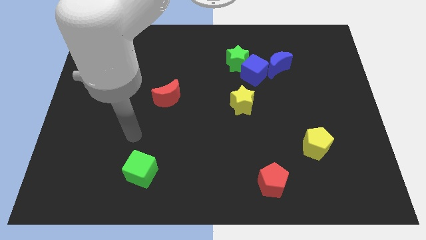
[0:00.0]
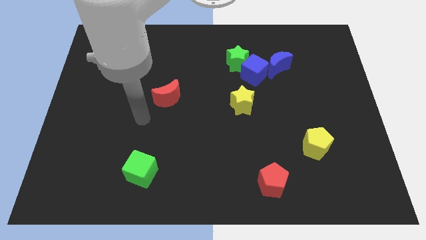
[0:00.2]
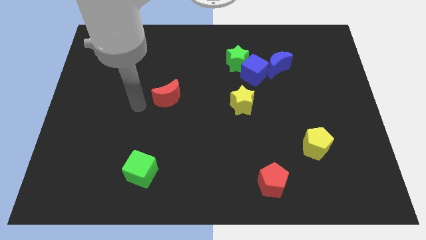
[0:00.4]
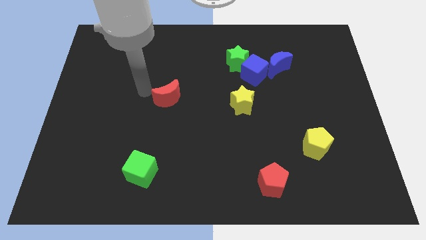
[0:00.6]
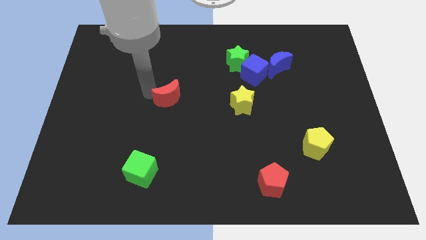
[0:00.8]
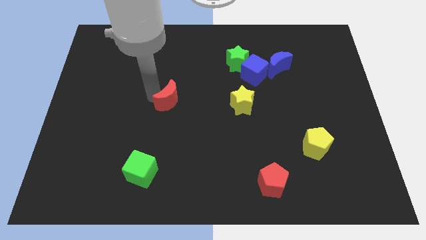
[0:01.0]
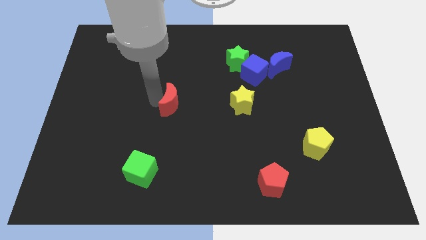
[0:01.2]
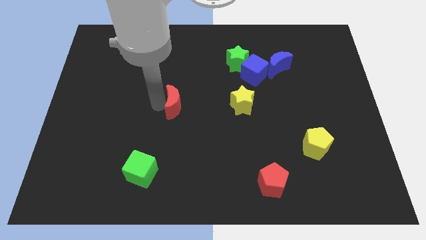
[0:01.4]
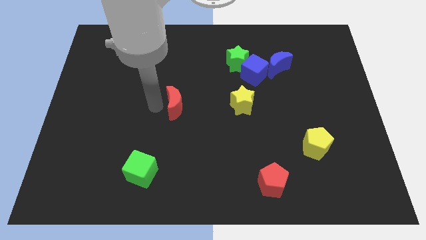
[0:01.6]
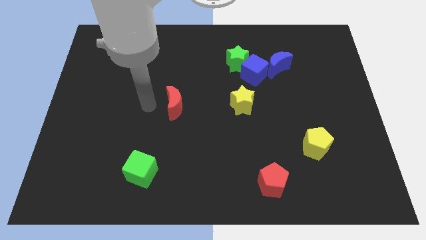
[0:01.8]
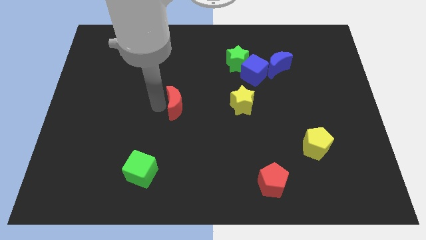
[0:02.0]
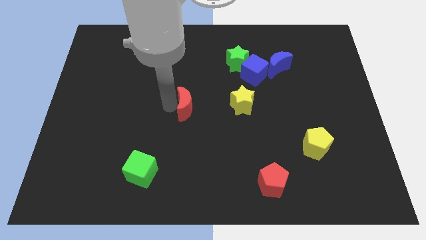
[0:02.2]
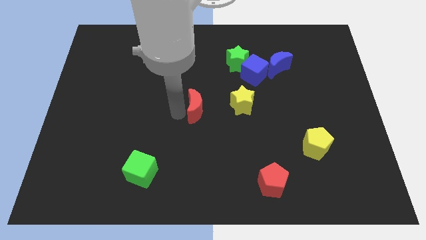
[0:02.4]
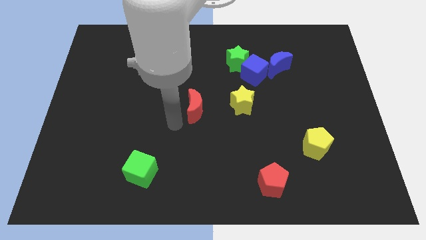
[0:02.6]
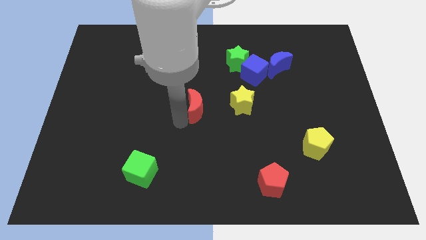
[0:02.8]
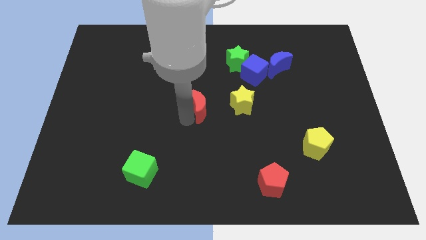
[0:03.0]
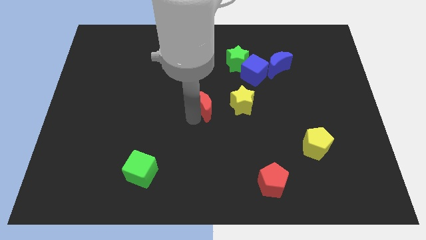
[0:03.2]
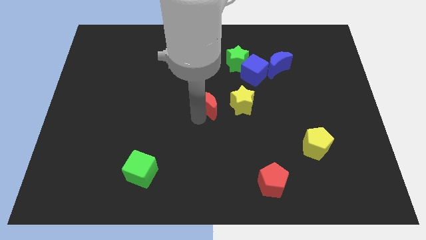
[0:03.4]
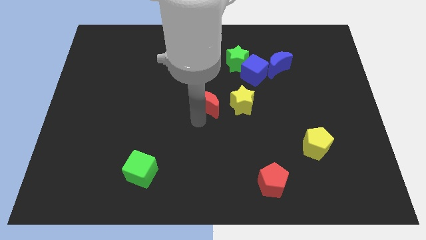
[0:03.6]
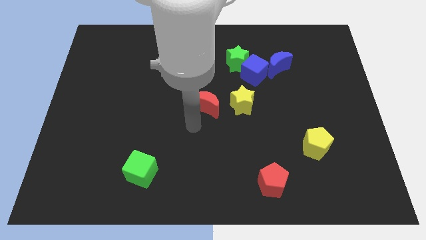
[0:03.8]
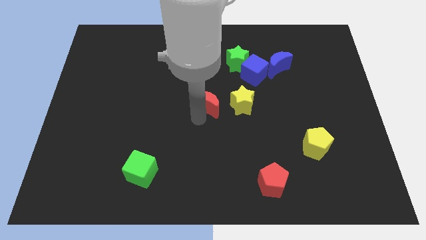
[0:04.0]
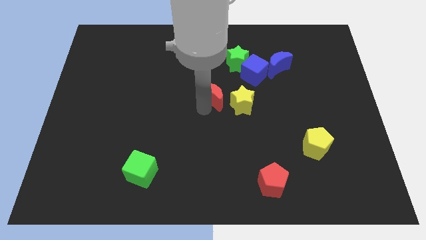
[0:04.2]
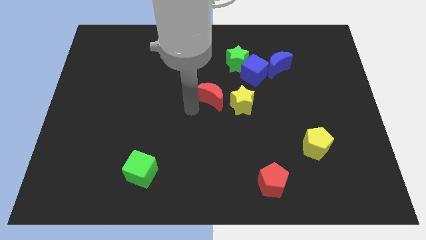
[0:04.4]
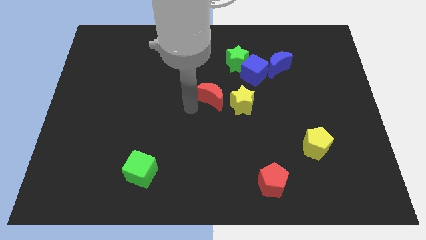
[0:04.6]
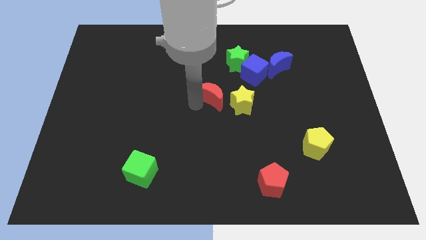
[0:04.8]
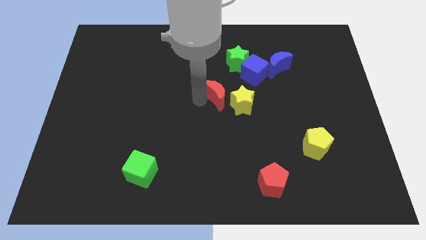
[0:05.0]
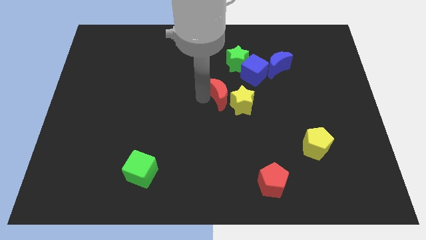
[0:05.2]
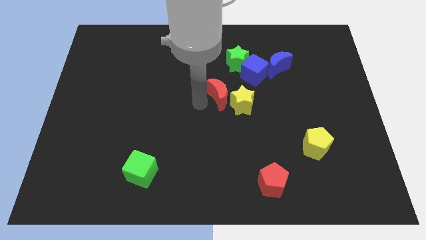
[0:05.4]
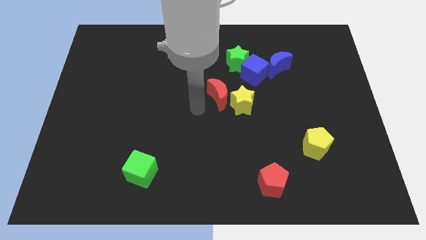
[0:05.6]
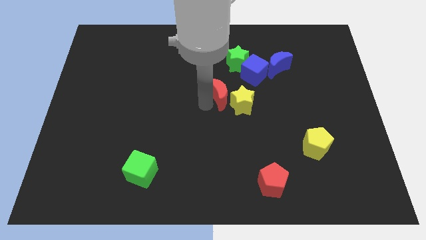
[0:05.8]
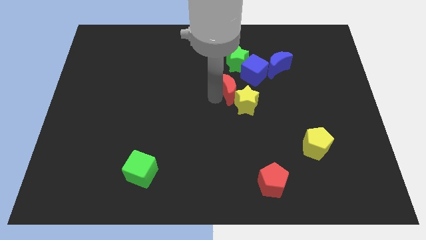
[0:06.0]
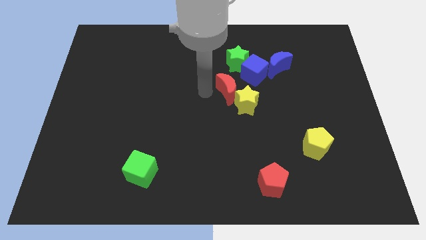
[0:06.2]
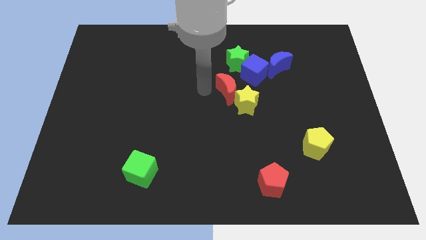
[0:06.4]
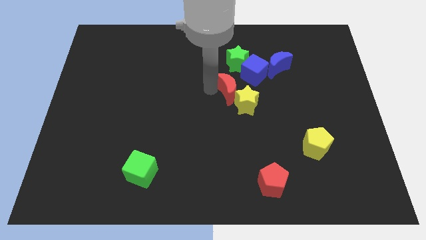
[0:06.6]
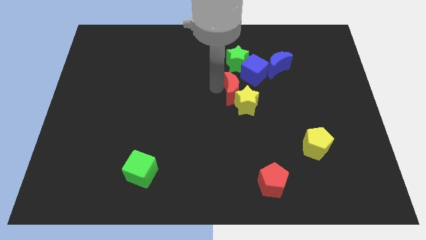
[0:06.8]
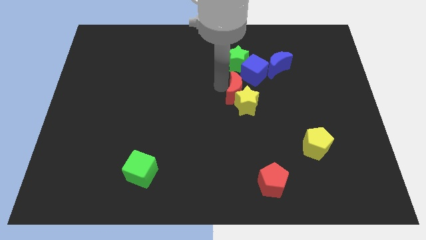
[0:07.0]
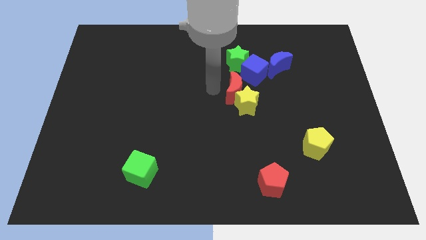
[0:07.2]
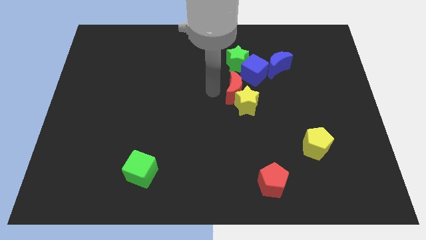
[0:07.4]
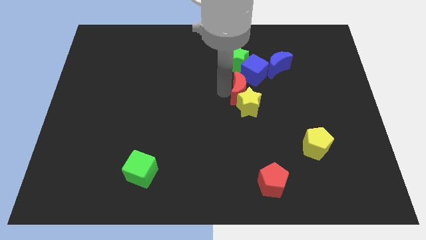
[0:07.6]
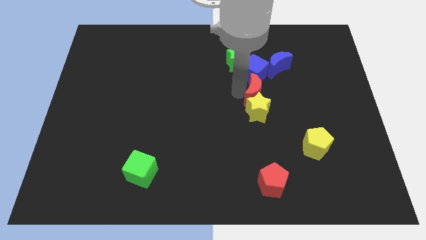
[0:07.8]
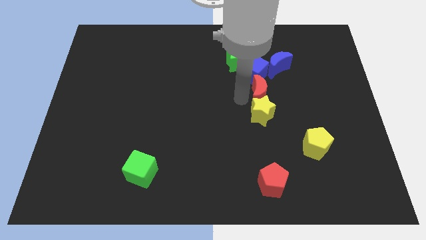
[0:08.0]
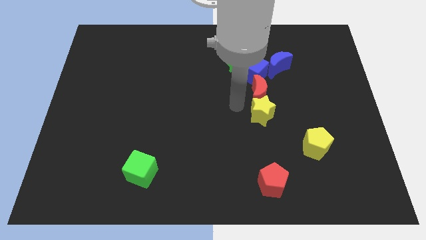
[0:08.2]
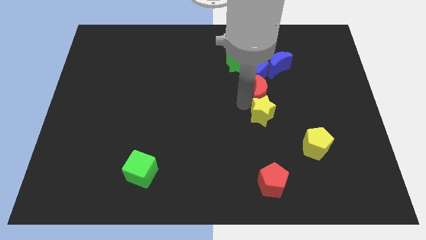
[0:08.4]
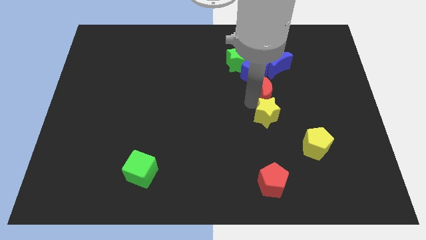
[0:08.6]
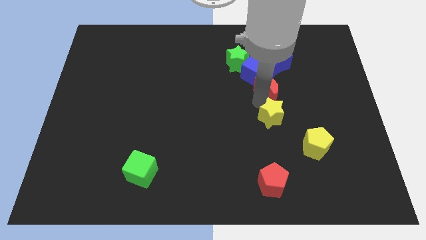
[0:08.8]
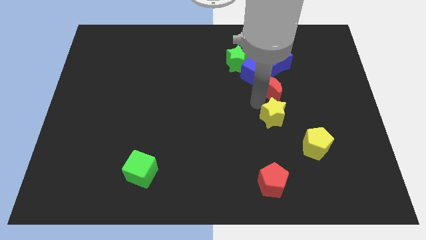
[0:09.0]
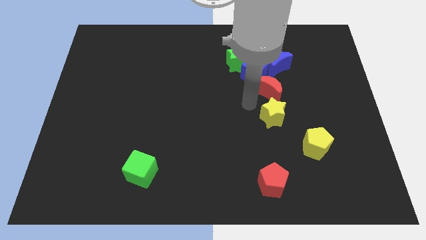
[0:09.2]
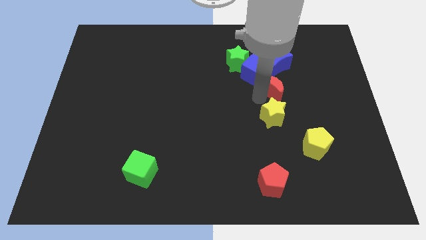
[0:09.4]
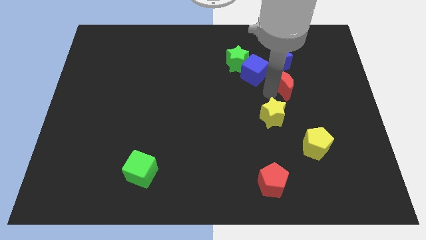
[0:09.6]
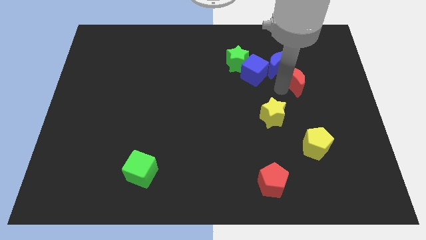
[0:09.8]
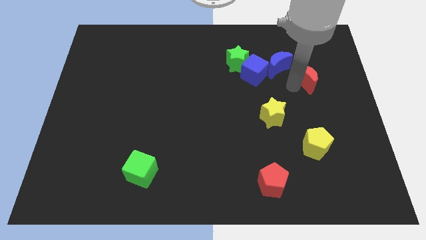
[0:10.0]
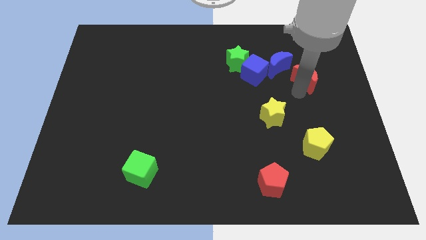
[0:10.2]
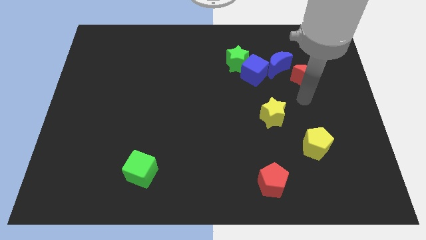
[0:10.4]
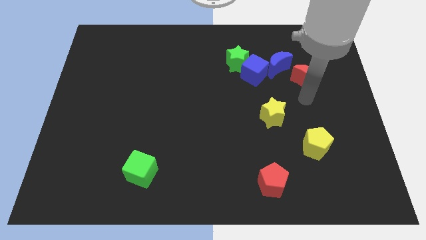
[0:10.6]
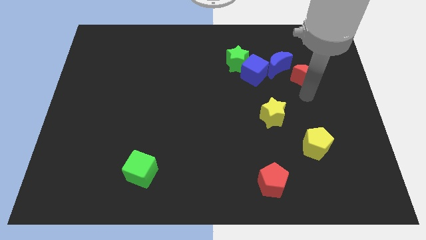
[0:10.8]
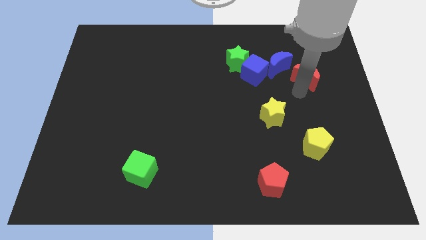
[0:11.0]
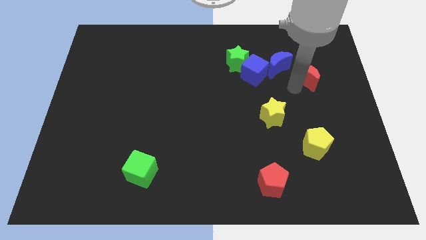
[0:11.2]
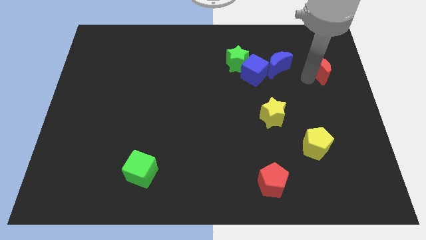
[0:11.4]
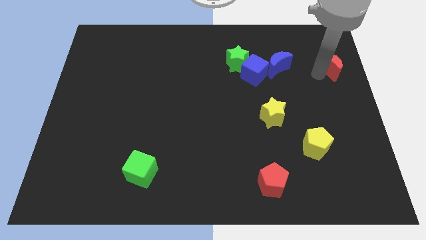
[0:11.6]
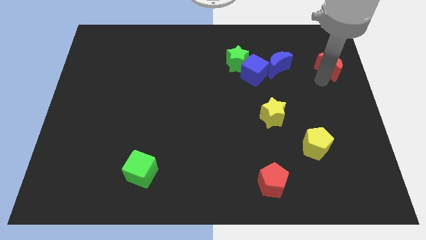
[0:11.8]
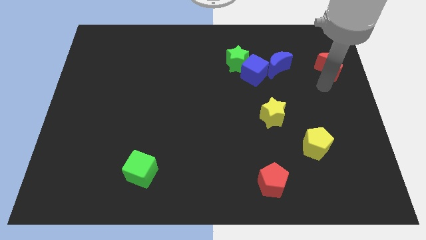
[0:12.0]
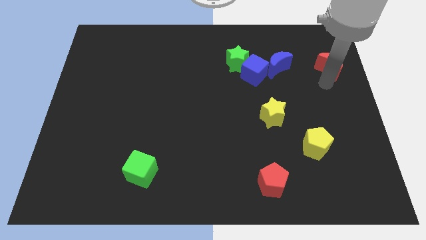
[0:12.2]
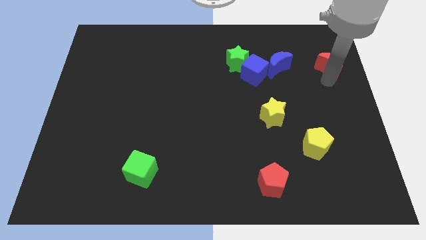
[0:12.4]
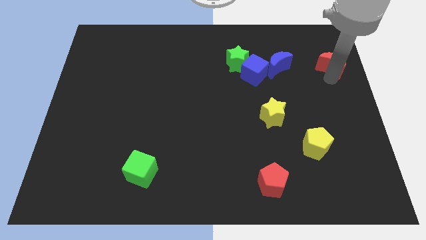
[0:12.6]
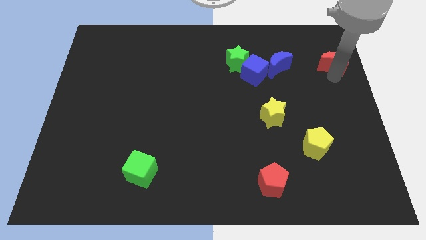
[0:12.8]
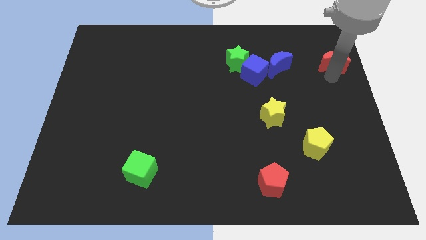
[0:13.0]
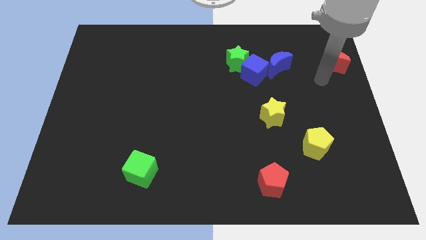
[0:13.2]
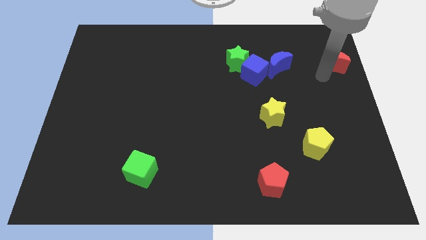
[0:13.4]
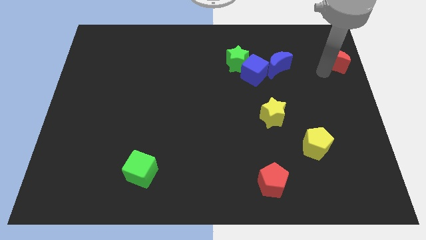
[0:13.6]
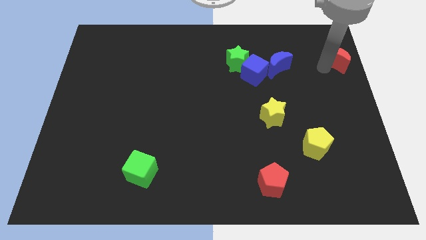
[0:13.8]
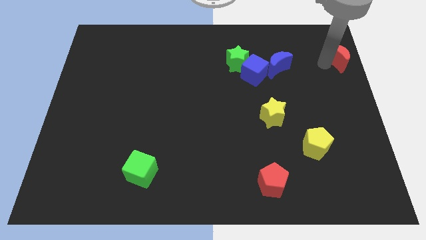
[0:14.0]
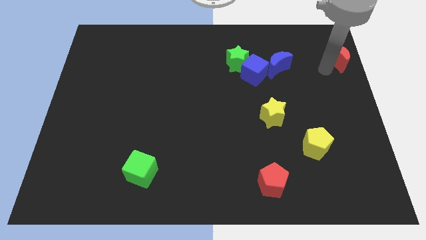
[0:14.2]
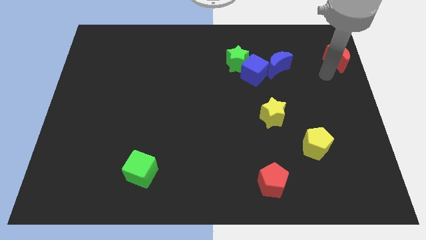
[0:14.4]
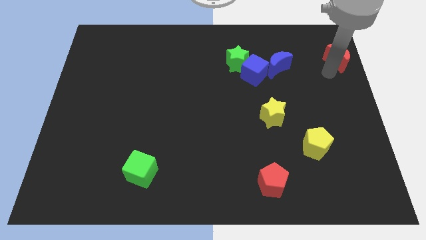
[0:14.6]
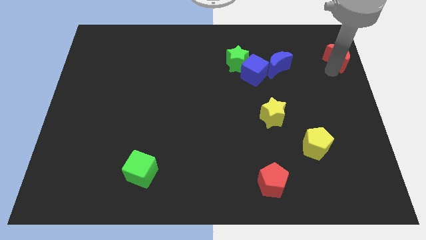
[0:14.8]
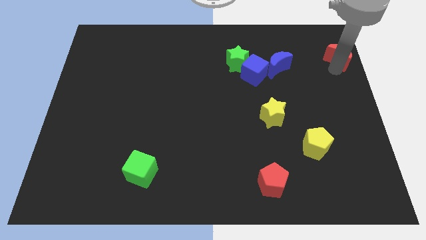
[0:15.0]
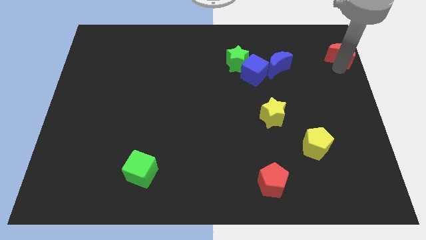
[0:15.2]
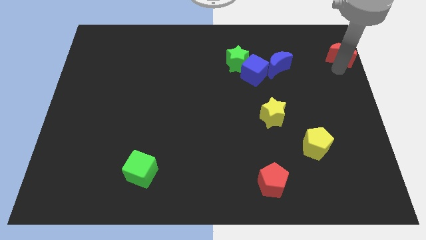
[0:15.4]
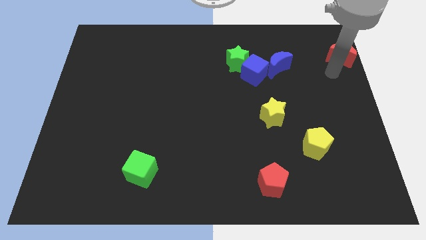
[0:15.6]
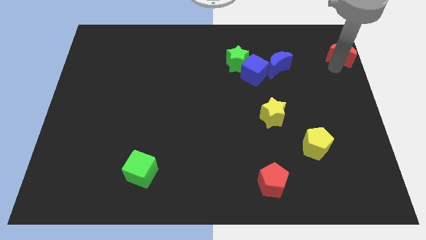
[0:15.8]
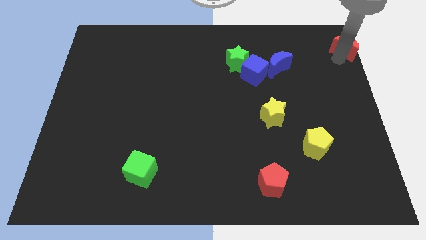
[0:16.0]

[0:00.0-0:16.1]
push the red moon to the top right corner
